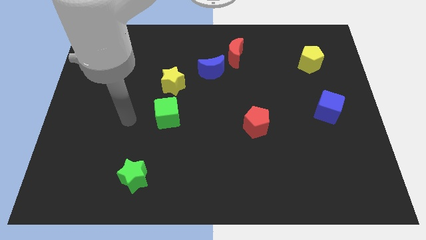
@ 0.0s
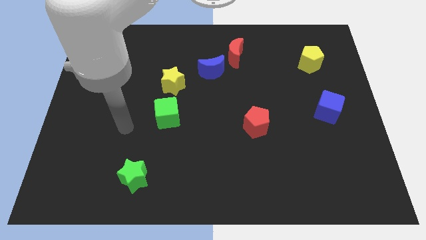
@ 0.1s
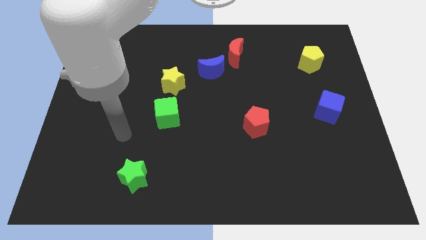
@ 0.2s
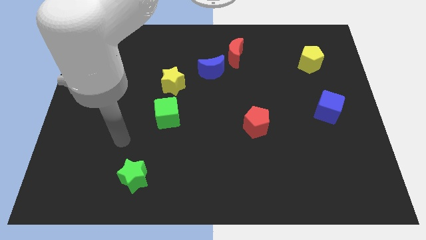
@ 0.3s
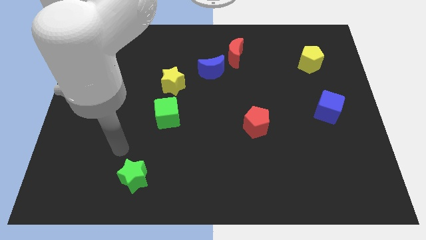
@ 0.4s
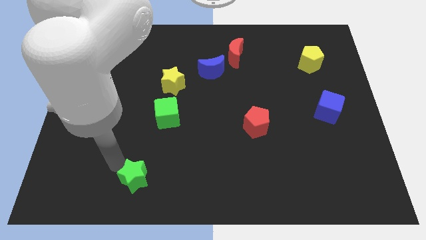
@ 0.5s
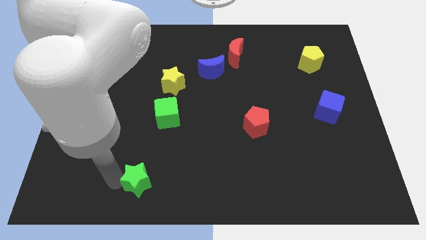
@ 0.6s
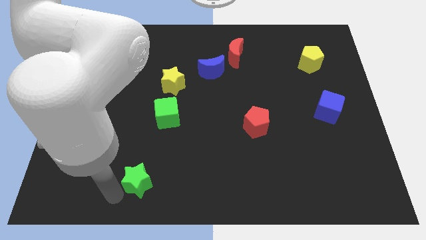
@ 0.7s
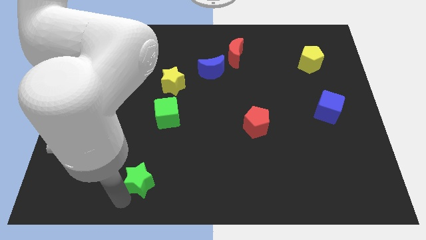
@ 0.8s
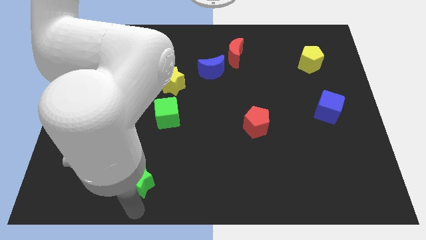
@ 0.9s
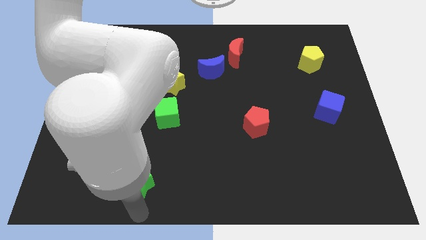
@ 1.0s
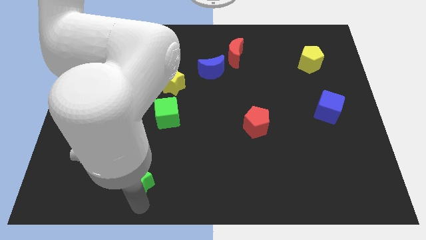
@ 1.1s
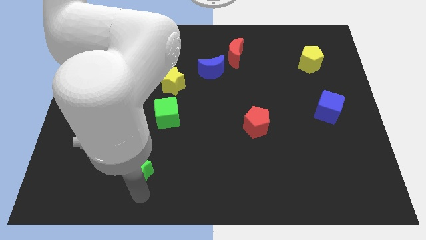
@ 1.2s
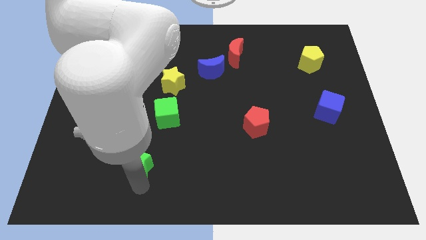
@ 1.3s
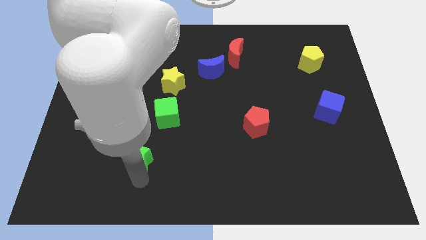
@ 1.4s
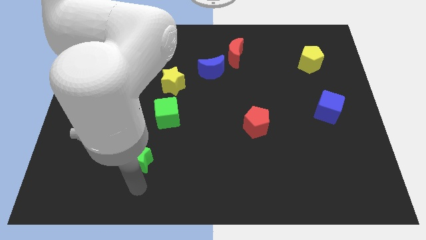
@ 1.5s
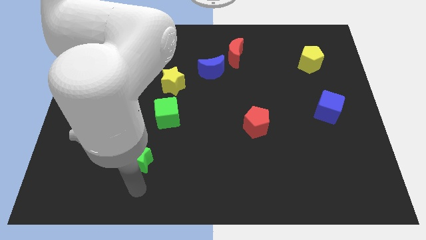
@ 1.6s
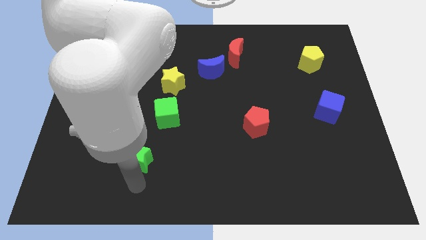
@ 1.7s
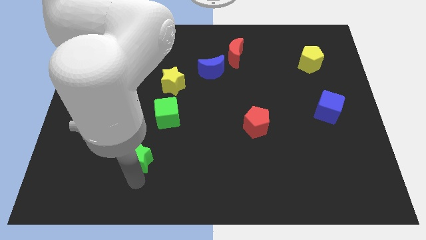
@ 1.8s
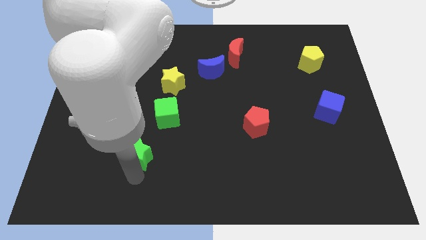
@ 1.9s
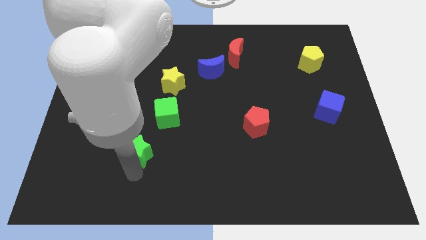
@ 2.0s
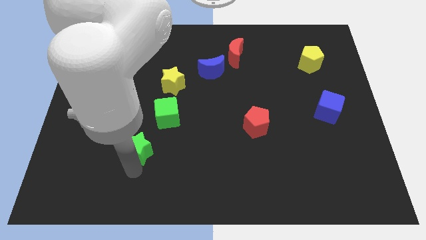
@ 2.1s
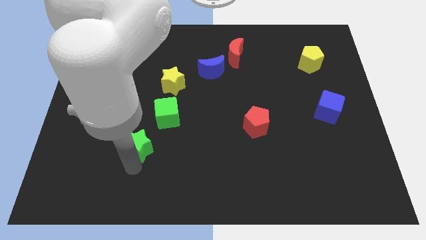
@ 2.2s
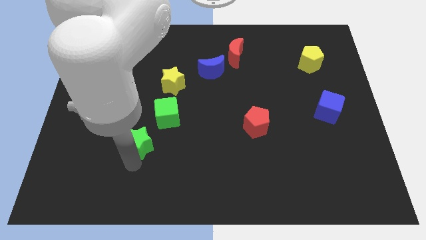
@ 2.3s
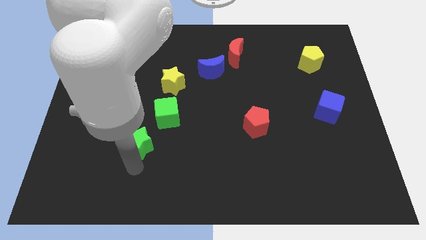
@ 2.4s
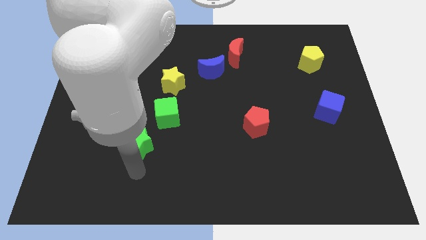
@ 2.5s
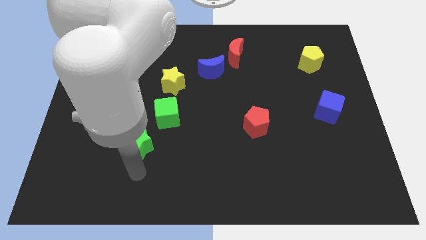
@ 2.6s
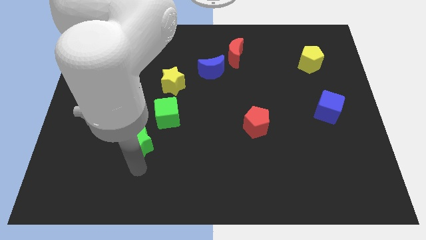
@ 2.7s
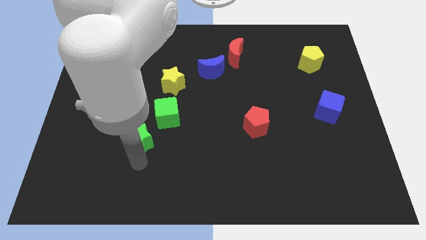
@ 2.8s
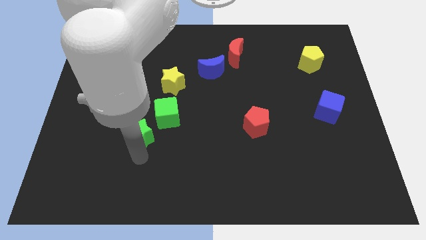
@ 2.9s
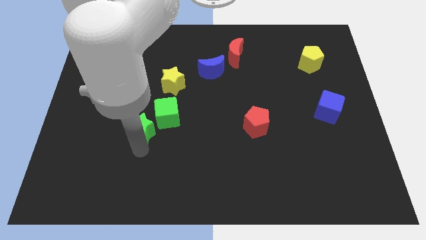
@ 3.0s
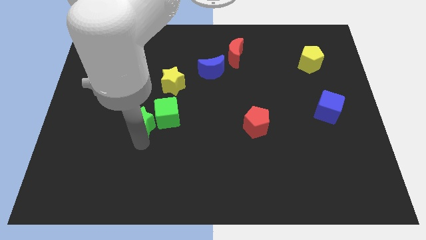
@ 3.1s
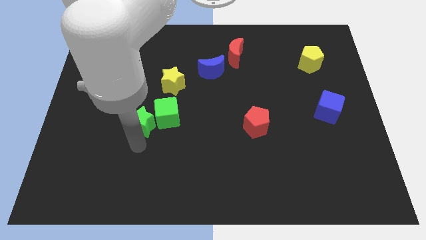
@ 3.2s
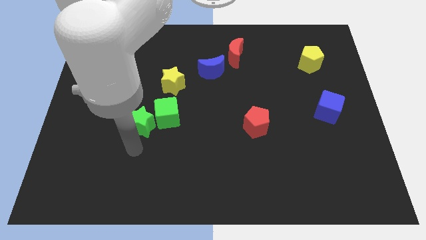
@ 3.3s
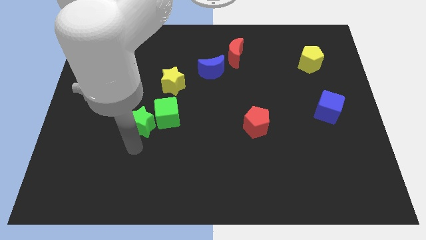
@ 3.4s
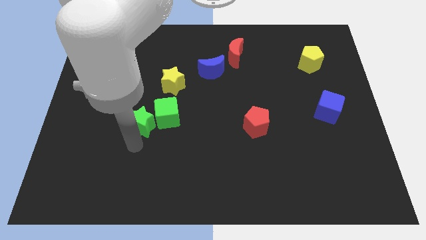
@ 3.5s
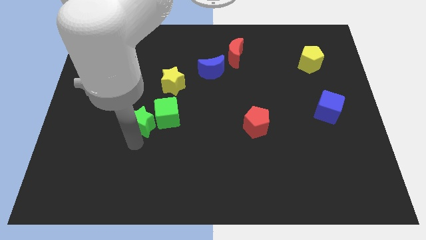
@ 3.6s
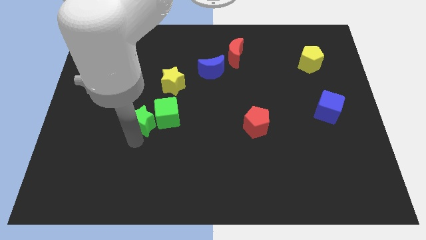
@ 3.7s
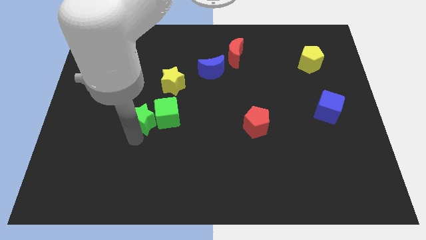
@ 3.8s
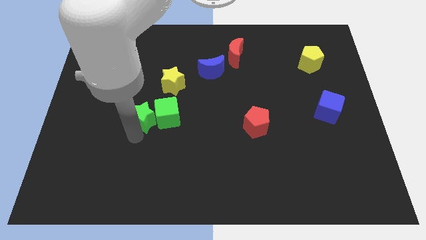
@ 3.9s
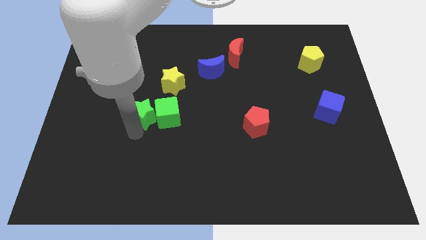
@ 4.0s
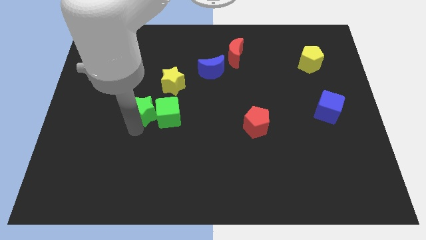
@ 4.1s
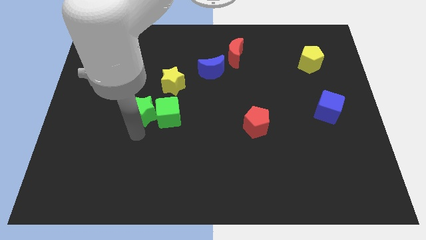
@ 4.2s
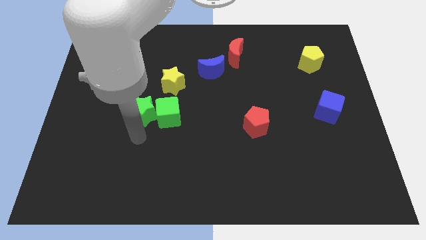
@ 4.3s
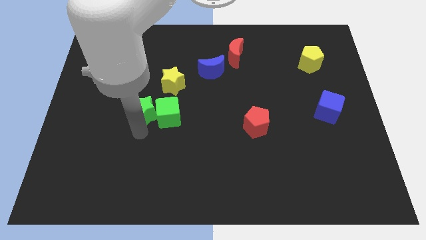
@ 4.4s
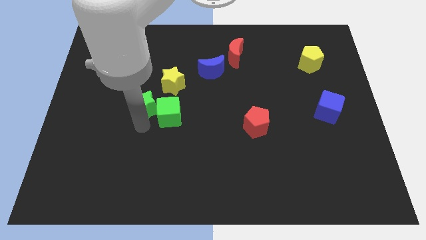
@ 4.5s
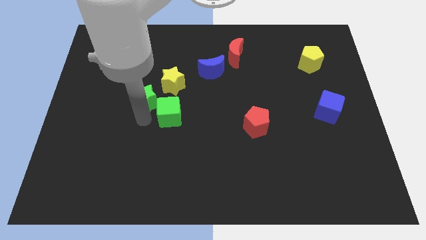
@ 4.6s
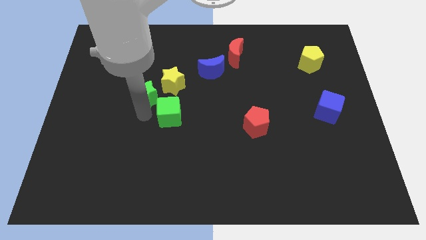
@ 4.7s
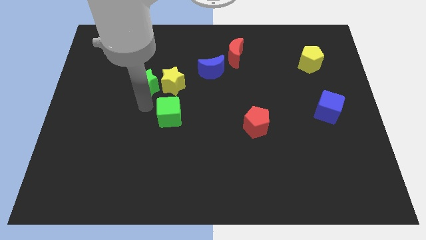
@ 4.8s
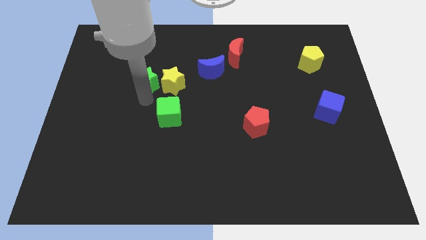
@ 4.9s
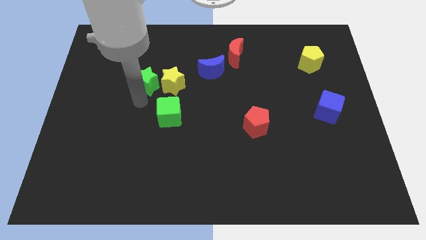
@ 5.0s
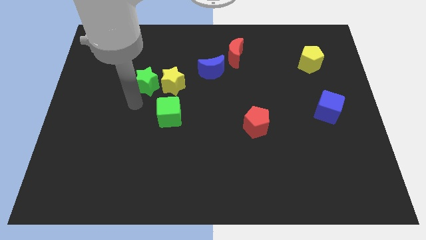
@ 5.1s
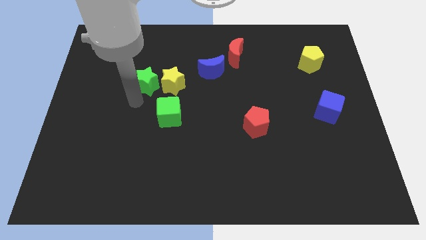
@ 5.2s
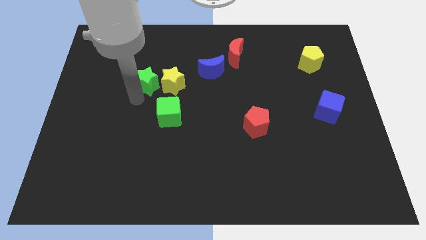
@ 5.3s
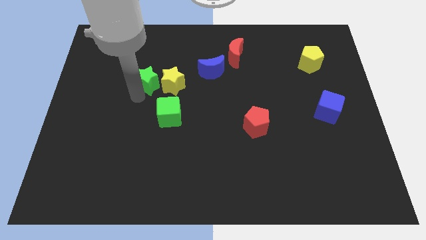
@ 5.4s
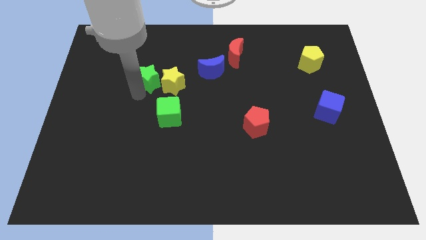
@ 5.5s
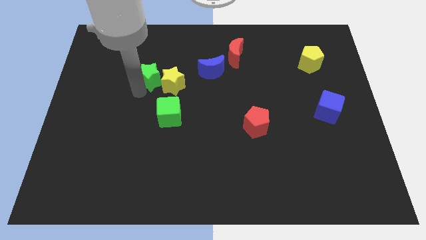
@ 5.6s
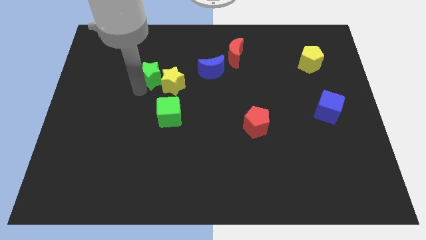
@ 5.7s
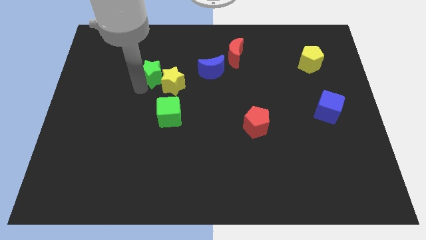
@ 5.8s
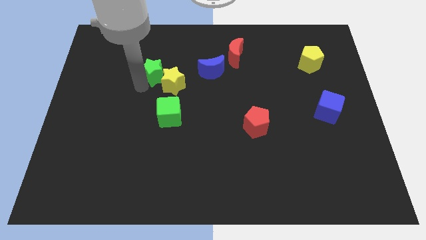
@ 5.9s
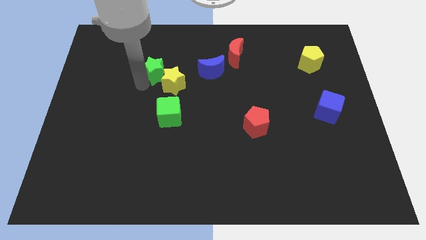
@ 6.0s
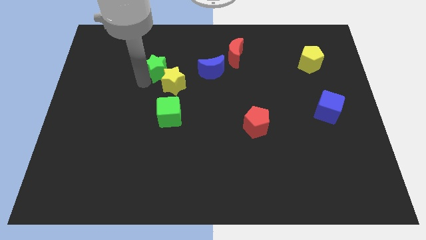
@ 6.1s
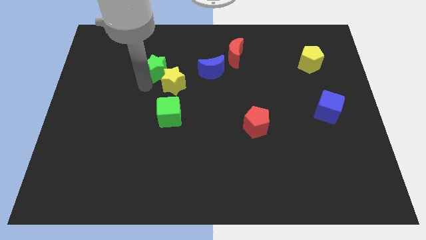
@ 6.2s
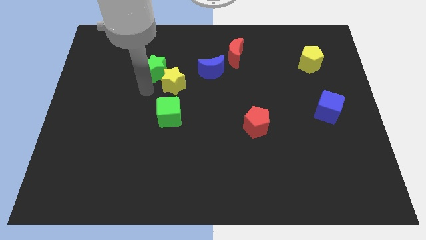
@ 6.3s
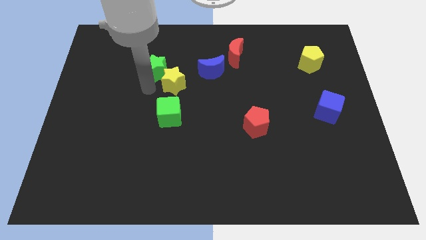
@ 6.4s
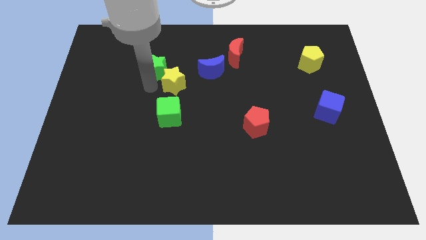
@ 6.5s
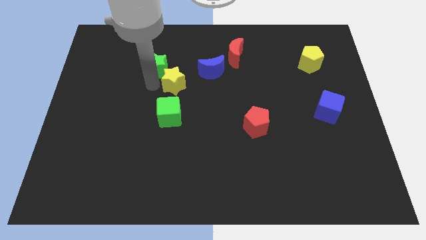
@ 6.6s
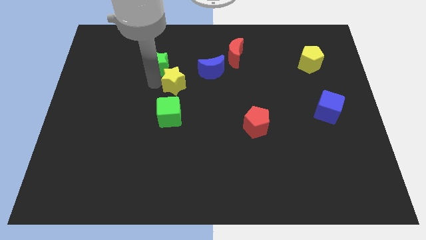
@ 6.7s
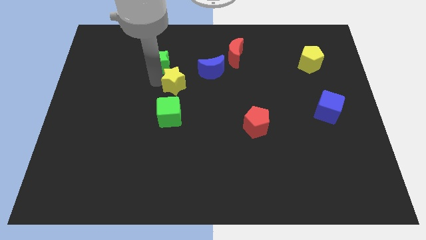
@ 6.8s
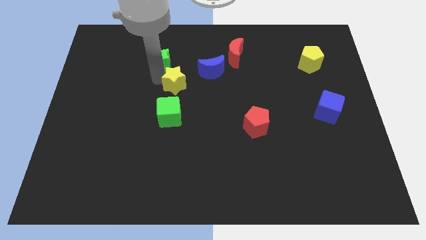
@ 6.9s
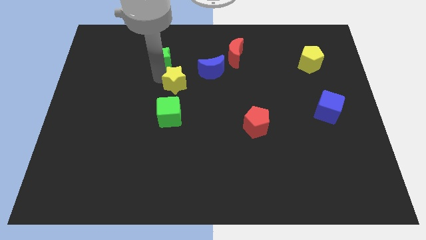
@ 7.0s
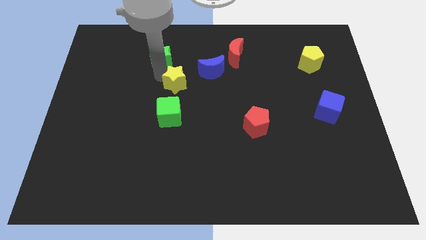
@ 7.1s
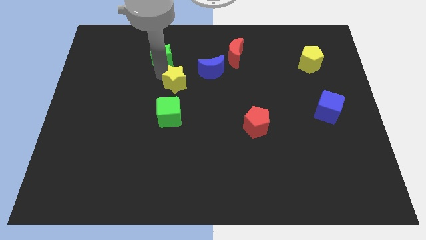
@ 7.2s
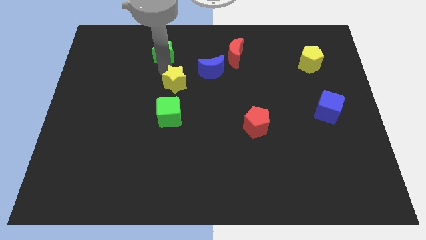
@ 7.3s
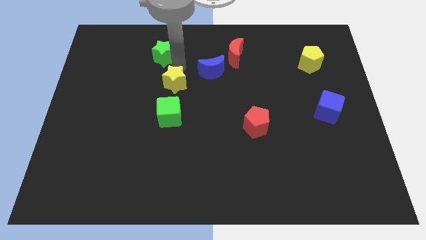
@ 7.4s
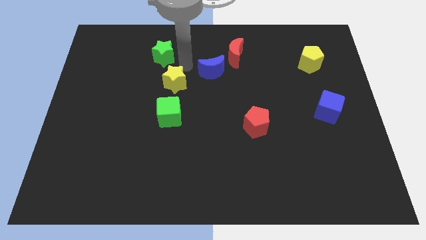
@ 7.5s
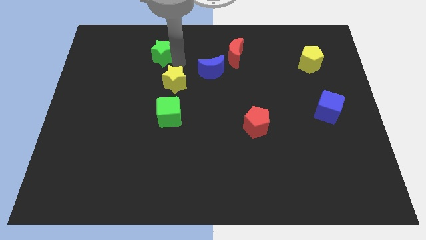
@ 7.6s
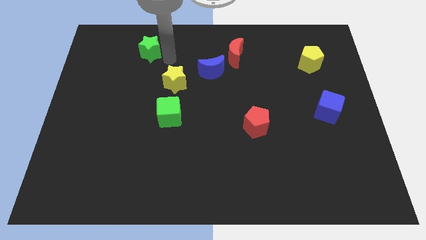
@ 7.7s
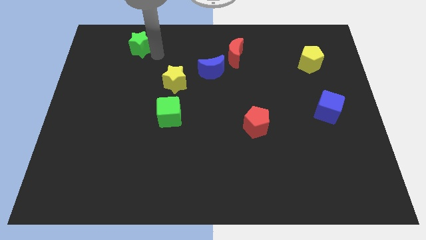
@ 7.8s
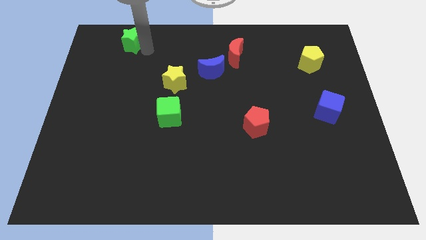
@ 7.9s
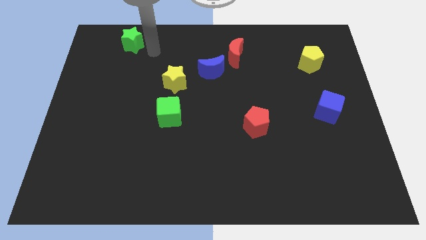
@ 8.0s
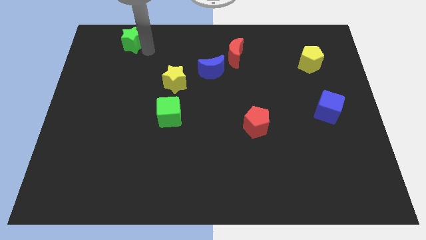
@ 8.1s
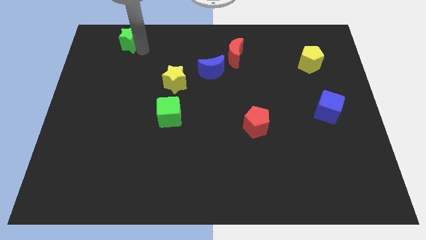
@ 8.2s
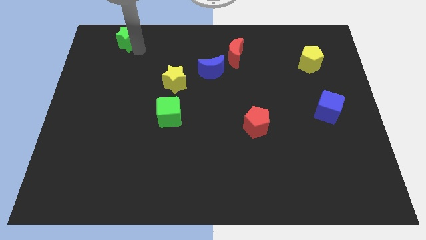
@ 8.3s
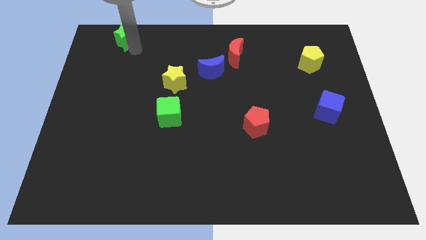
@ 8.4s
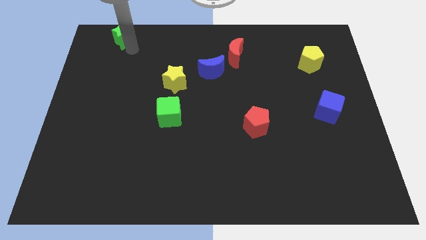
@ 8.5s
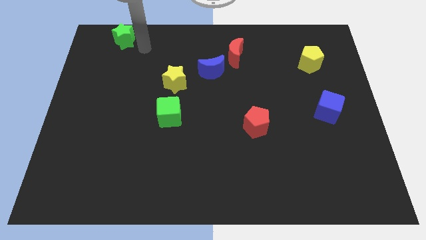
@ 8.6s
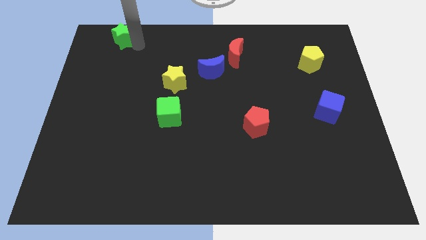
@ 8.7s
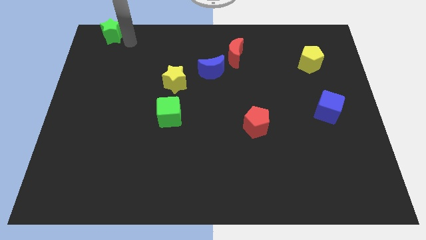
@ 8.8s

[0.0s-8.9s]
move the green star to the top left
